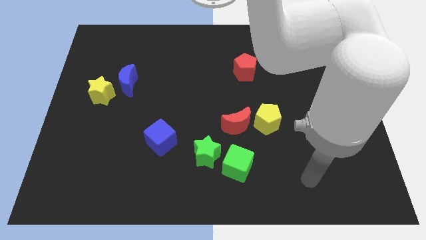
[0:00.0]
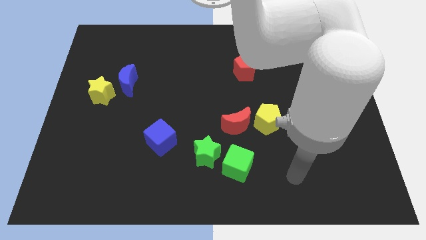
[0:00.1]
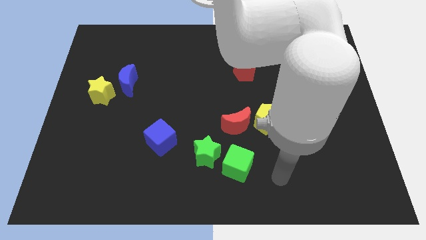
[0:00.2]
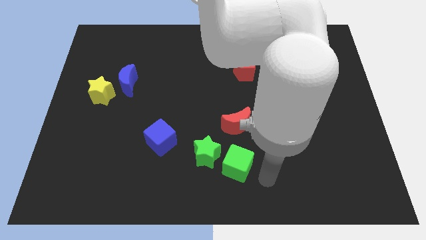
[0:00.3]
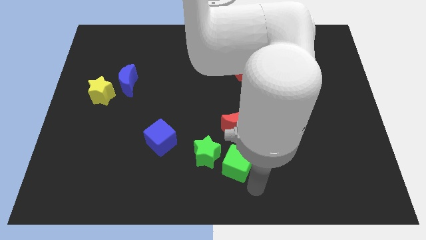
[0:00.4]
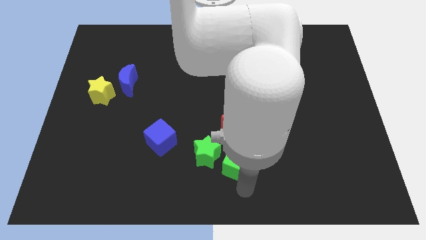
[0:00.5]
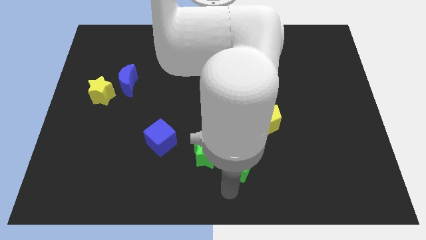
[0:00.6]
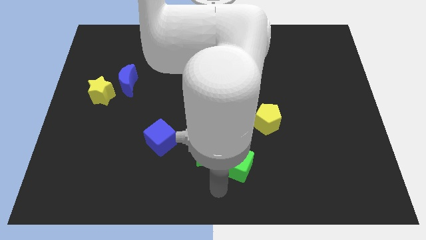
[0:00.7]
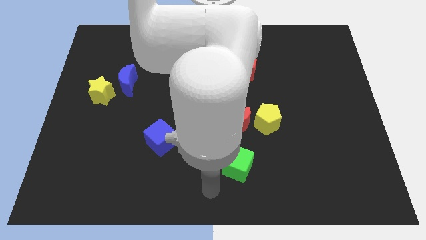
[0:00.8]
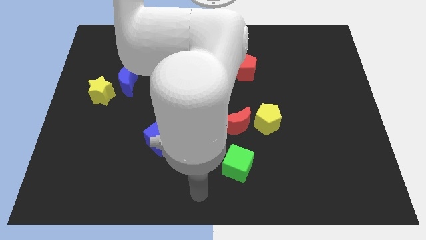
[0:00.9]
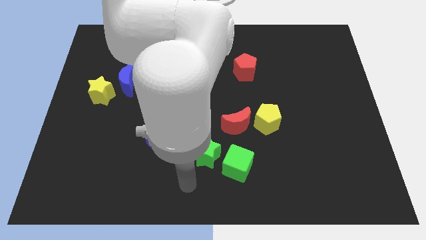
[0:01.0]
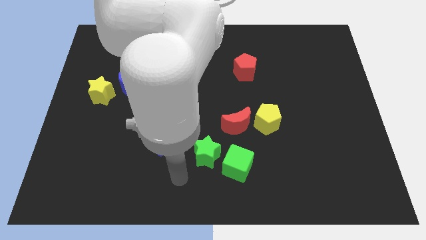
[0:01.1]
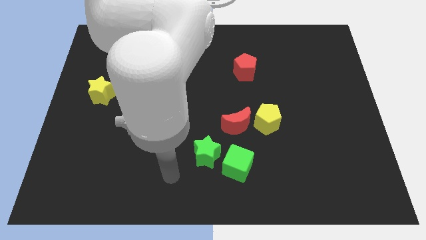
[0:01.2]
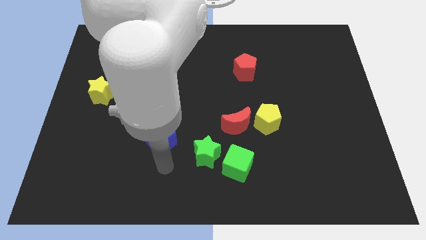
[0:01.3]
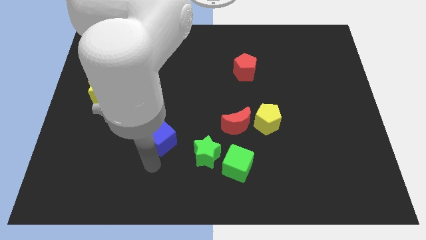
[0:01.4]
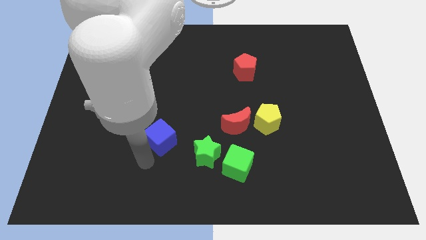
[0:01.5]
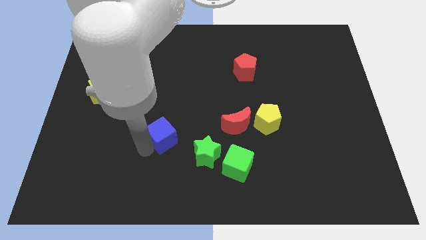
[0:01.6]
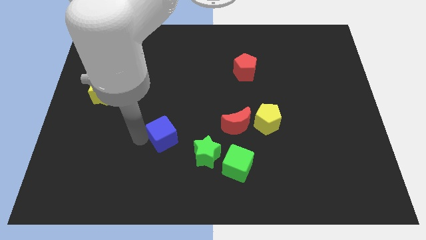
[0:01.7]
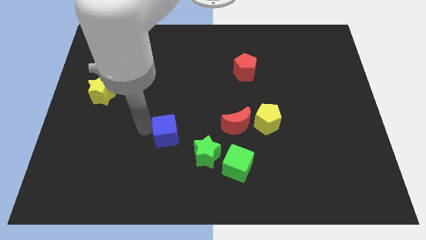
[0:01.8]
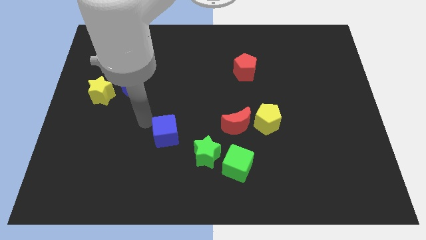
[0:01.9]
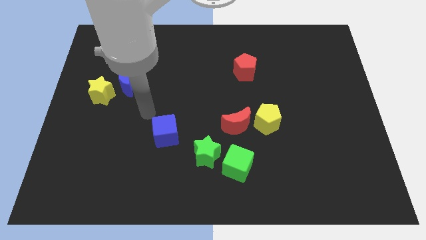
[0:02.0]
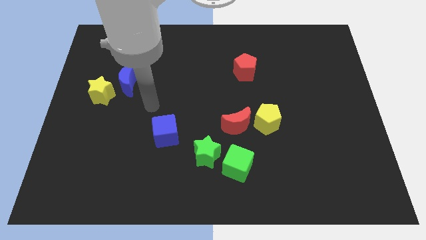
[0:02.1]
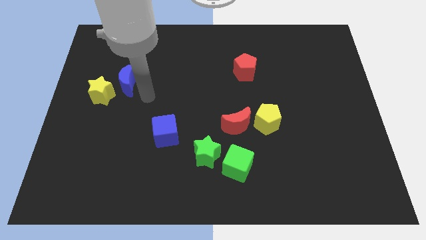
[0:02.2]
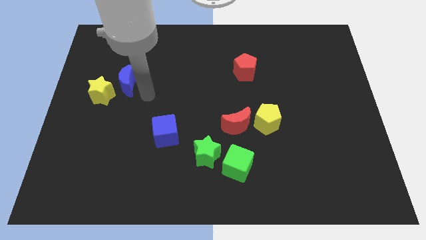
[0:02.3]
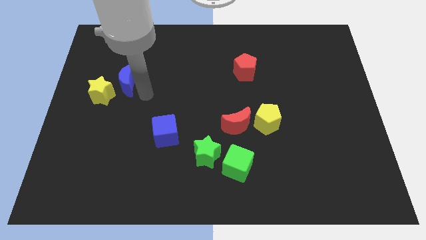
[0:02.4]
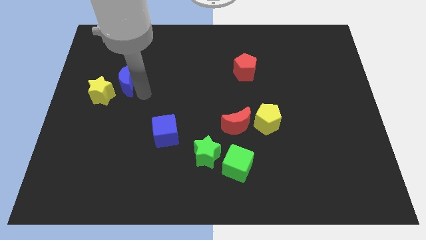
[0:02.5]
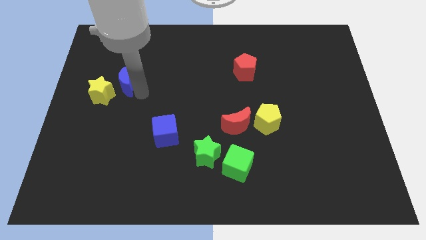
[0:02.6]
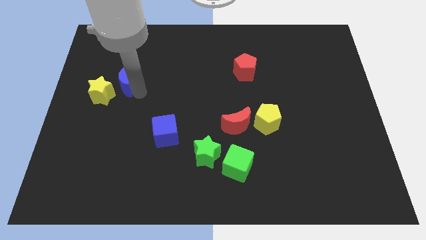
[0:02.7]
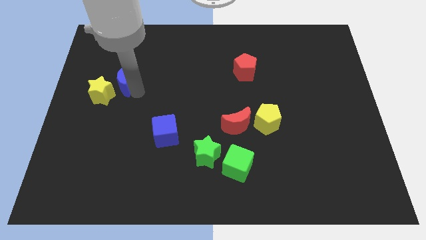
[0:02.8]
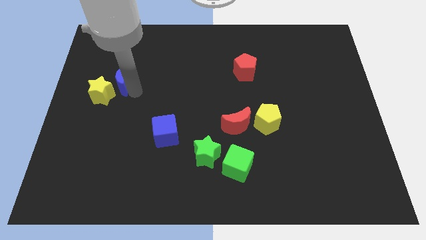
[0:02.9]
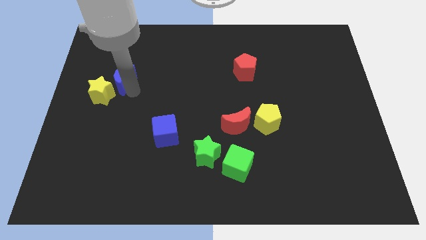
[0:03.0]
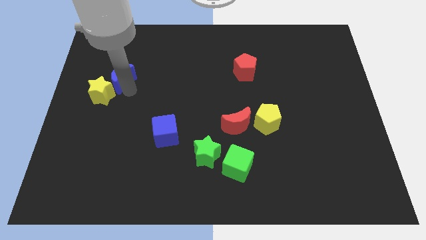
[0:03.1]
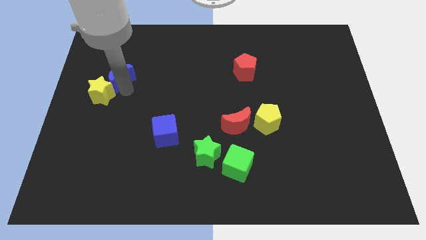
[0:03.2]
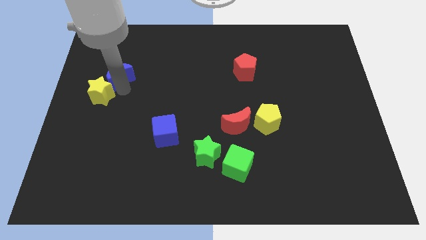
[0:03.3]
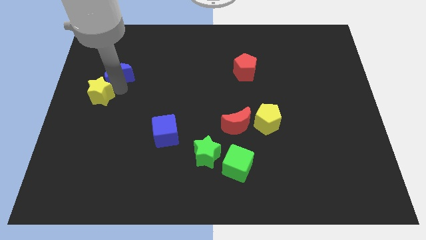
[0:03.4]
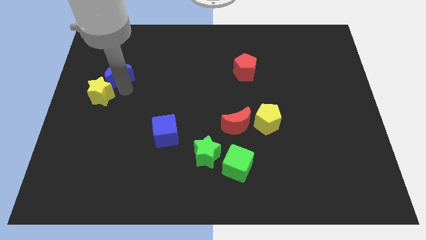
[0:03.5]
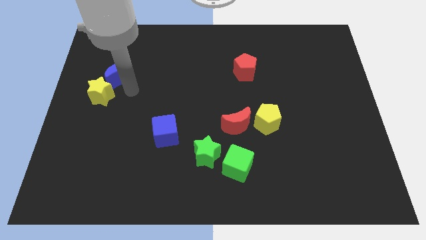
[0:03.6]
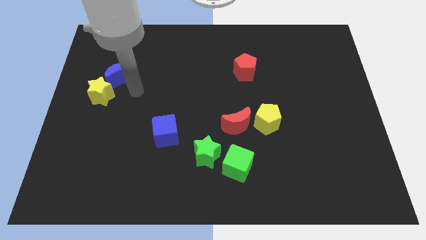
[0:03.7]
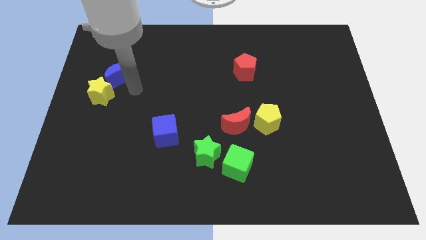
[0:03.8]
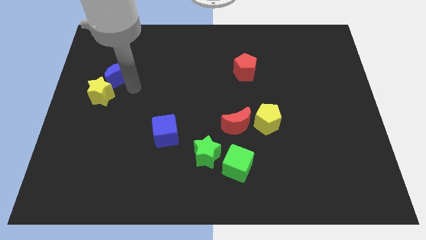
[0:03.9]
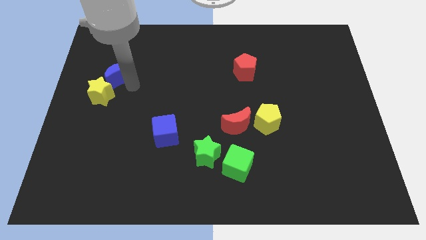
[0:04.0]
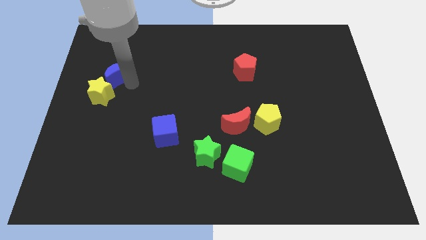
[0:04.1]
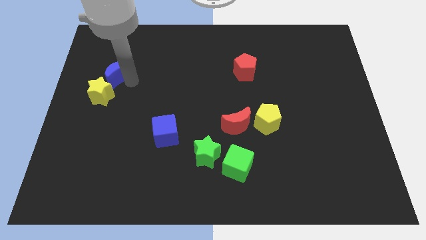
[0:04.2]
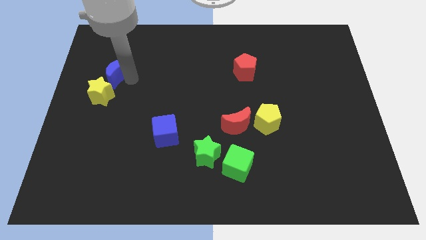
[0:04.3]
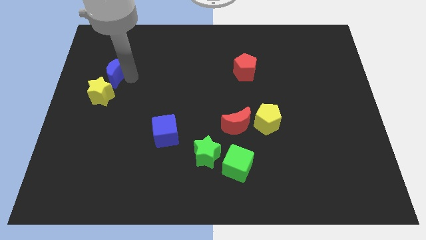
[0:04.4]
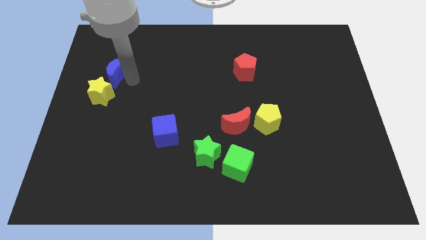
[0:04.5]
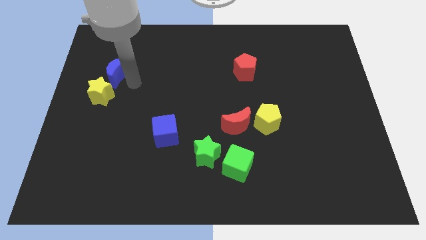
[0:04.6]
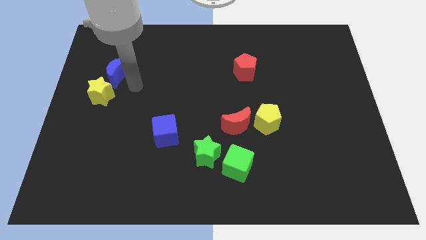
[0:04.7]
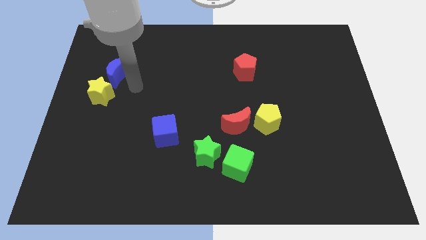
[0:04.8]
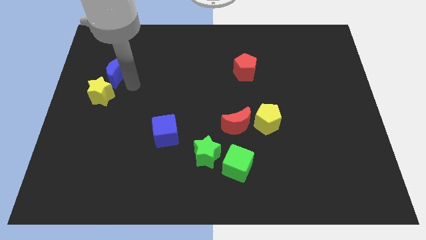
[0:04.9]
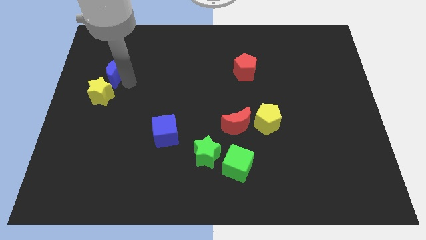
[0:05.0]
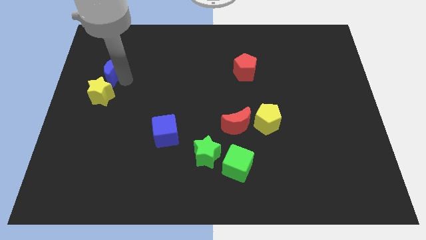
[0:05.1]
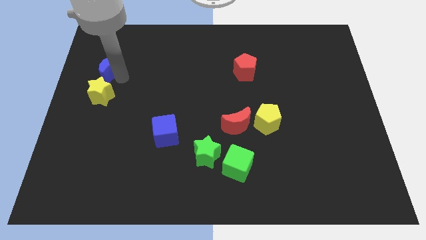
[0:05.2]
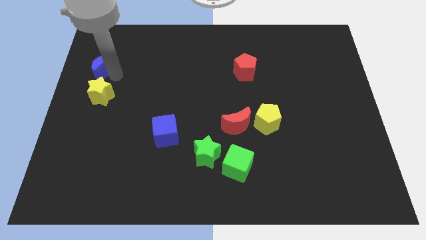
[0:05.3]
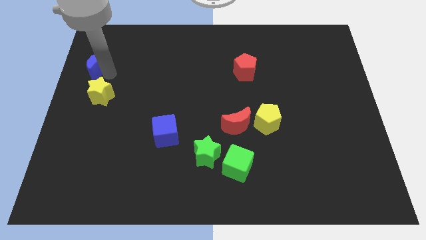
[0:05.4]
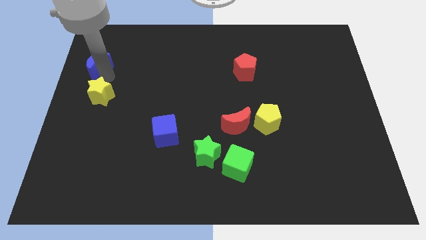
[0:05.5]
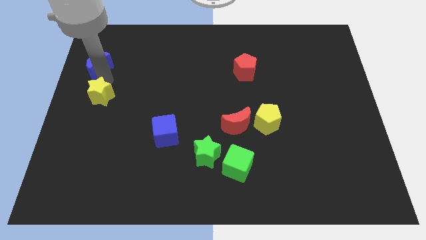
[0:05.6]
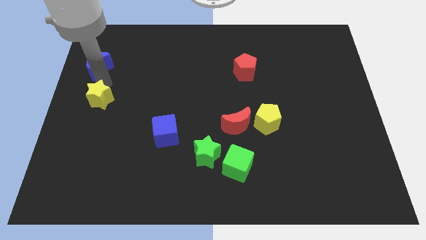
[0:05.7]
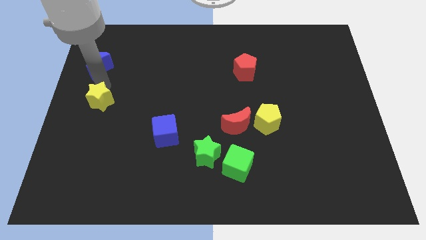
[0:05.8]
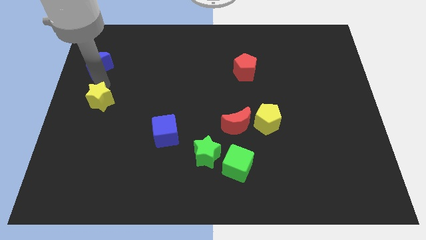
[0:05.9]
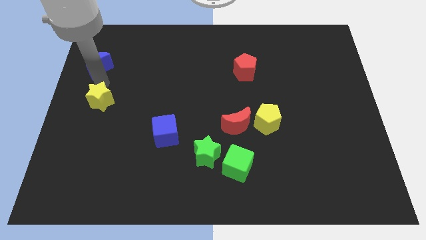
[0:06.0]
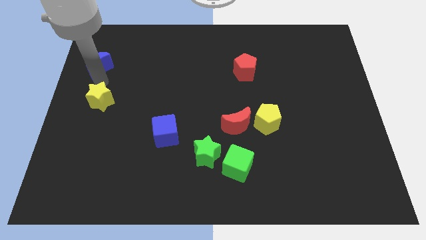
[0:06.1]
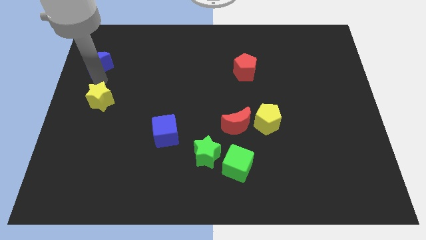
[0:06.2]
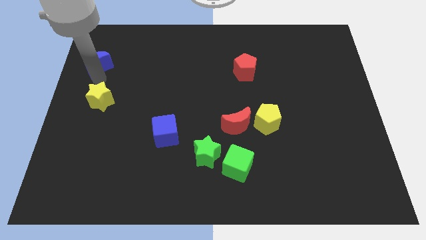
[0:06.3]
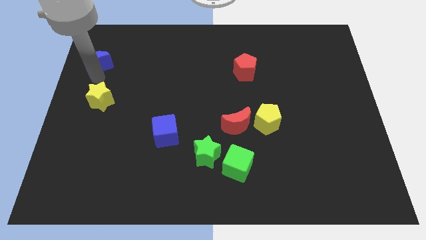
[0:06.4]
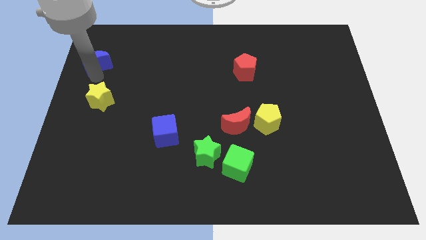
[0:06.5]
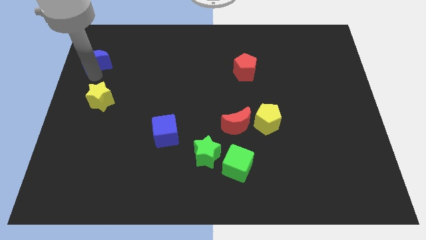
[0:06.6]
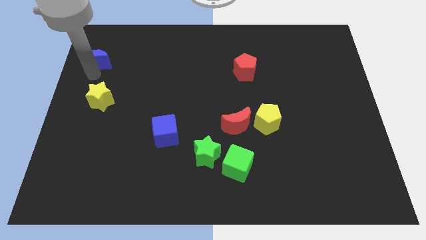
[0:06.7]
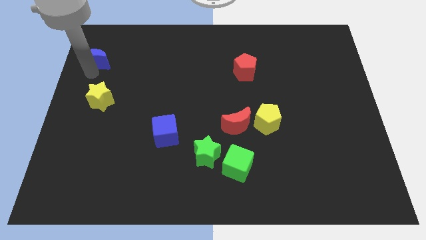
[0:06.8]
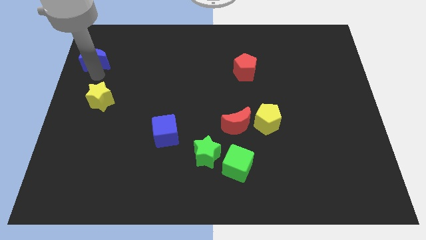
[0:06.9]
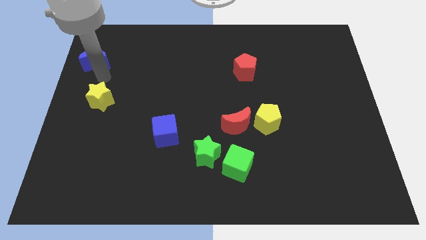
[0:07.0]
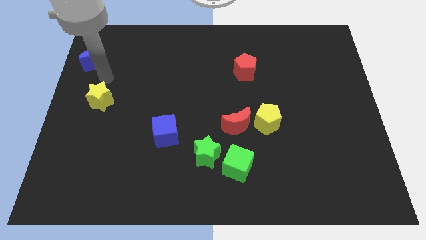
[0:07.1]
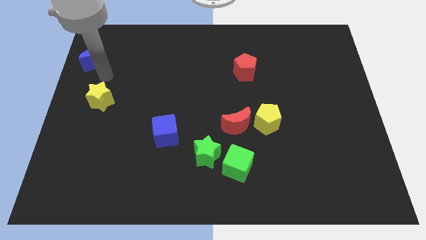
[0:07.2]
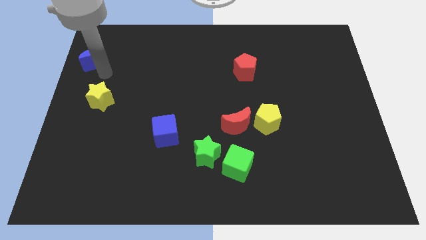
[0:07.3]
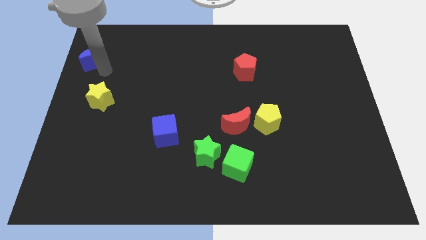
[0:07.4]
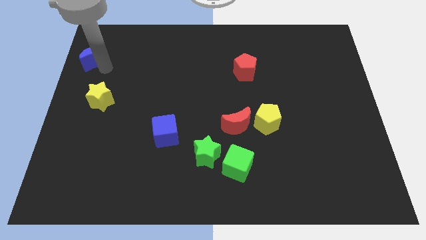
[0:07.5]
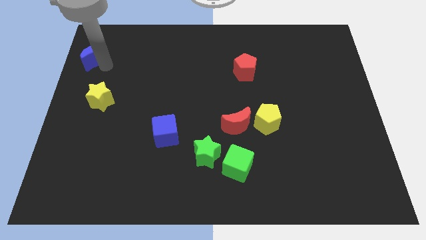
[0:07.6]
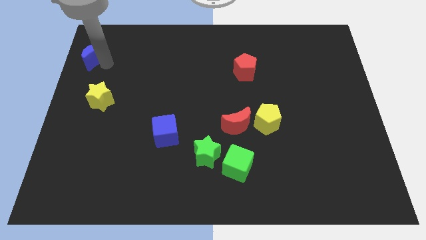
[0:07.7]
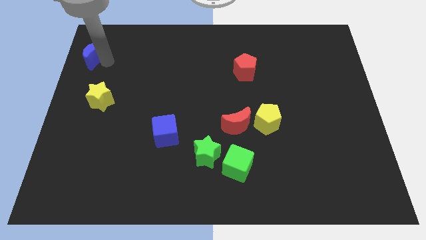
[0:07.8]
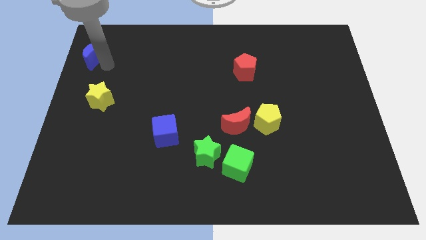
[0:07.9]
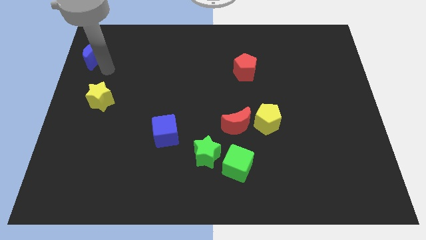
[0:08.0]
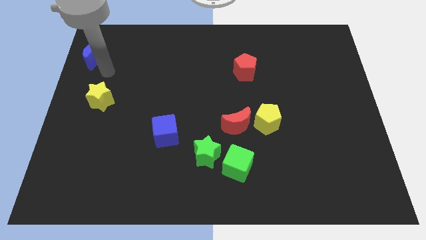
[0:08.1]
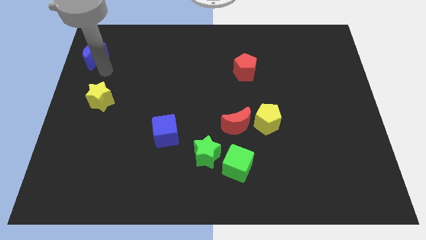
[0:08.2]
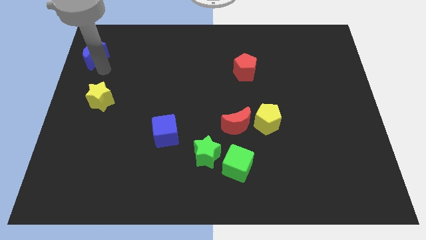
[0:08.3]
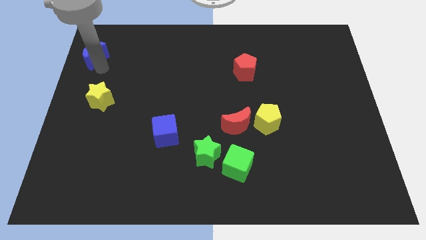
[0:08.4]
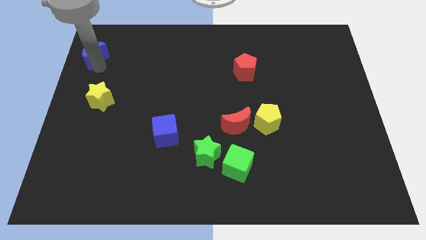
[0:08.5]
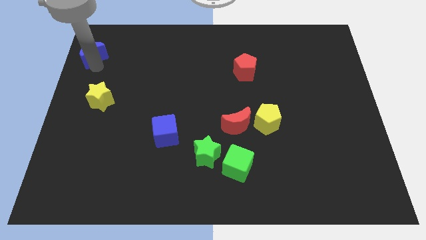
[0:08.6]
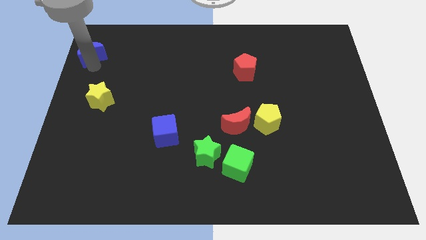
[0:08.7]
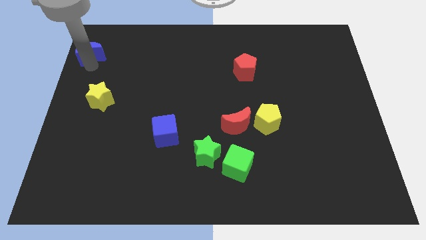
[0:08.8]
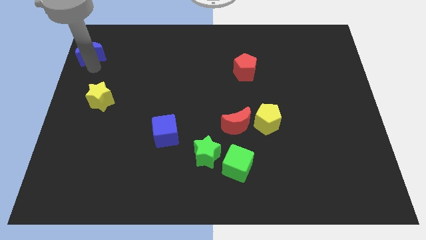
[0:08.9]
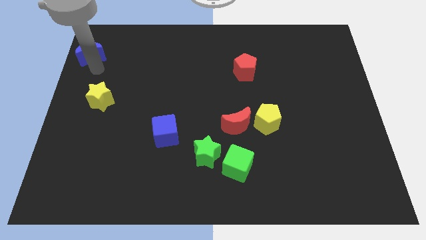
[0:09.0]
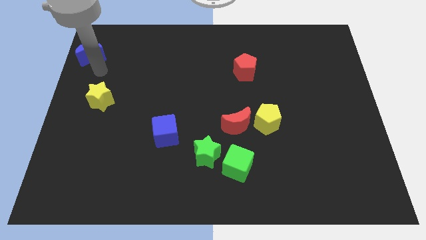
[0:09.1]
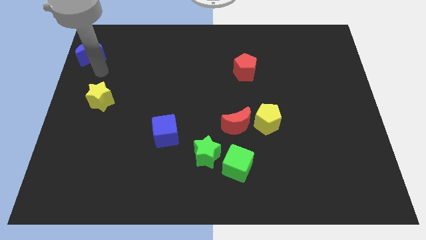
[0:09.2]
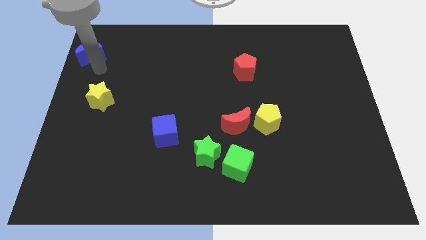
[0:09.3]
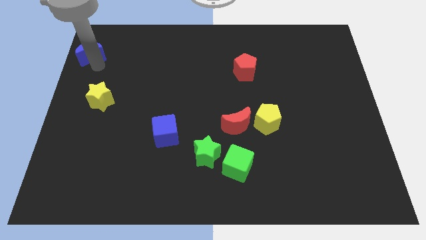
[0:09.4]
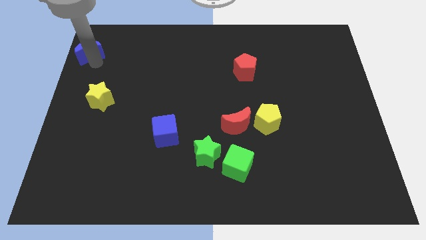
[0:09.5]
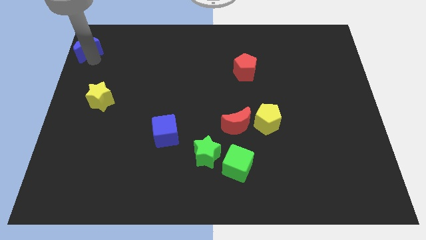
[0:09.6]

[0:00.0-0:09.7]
push the blue moon to the top left of the board
